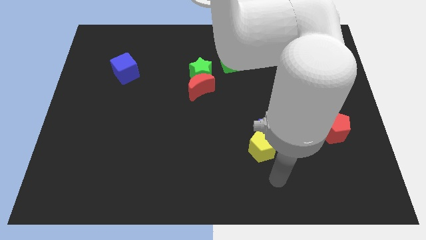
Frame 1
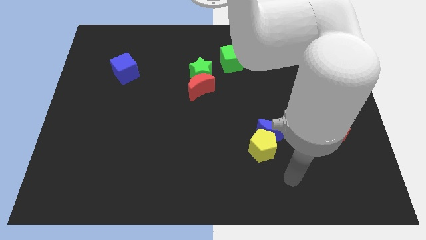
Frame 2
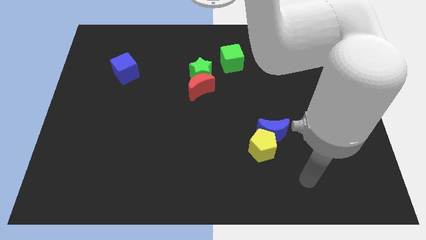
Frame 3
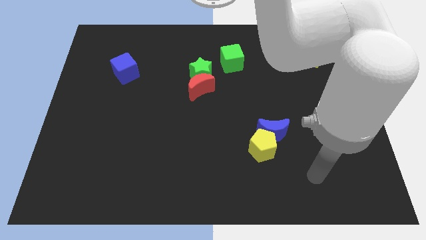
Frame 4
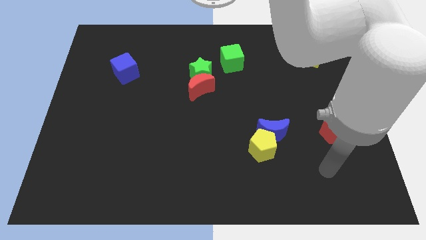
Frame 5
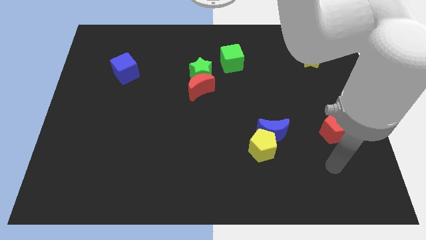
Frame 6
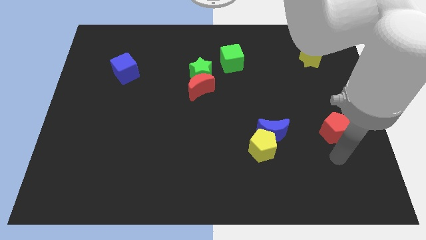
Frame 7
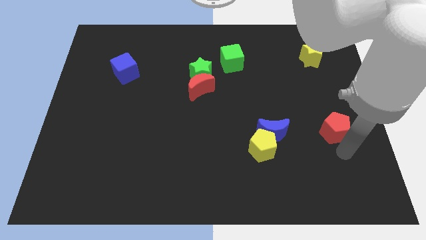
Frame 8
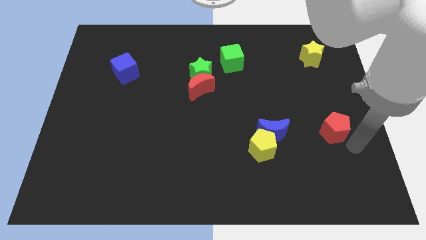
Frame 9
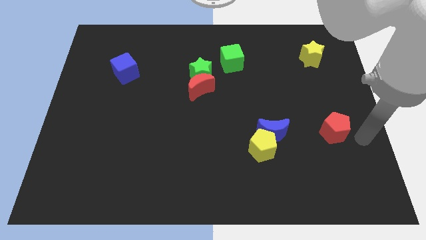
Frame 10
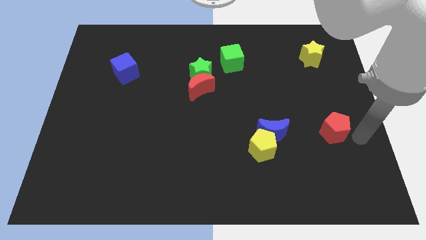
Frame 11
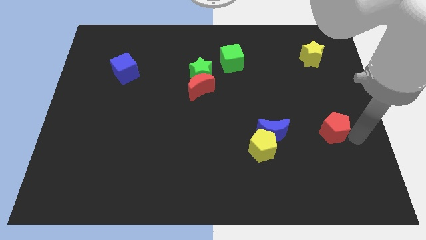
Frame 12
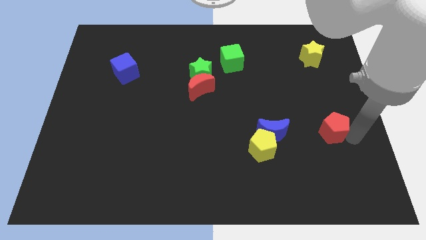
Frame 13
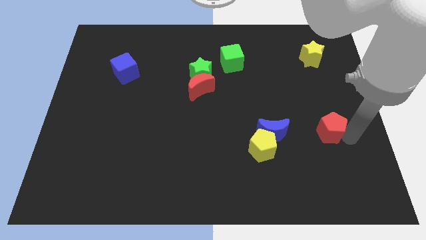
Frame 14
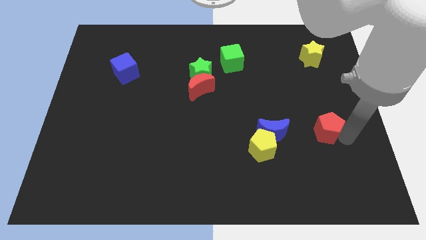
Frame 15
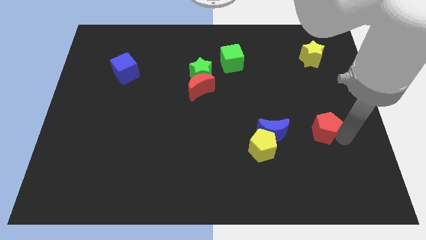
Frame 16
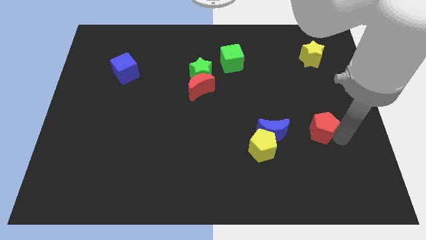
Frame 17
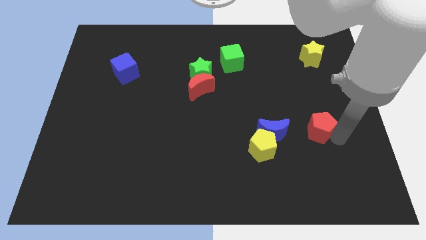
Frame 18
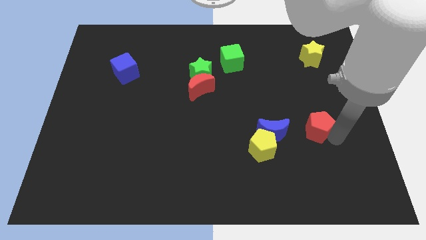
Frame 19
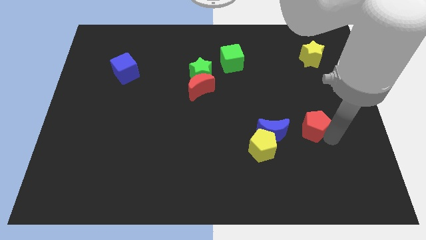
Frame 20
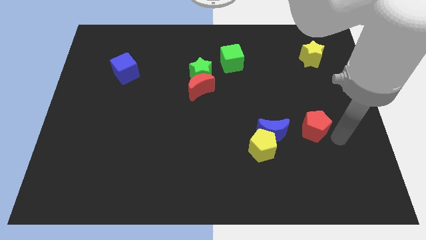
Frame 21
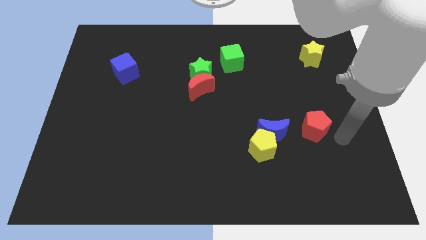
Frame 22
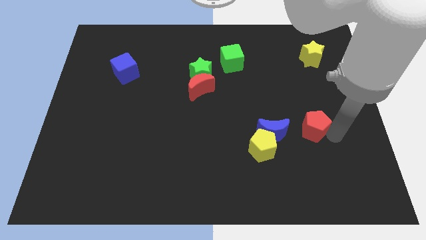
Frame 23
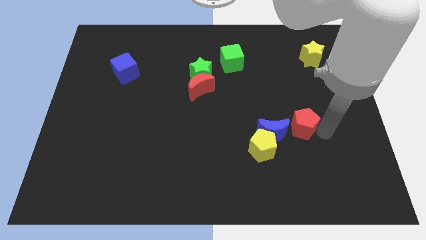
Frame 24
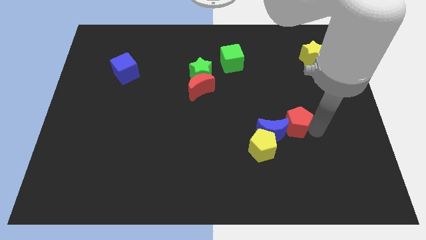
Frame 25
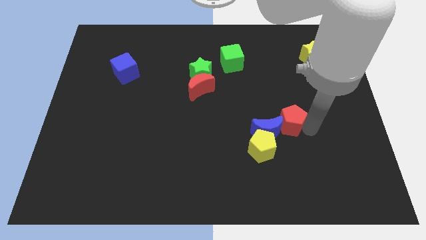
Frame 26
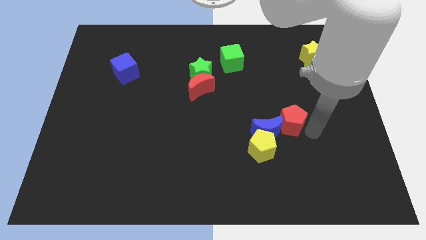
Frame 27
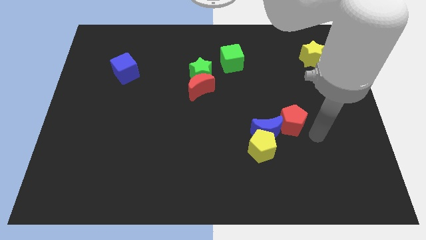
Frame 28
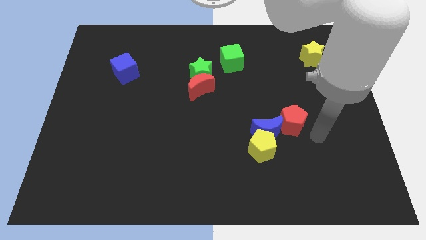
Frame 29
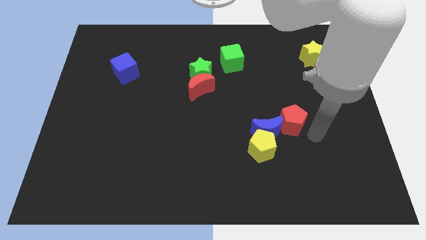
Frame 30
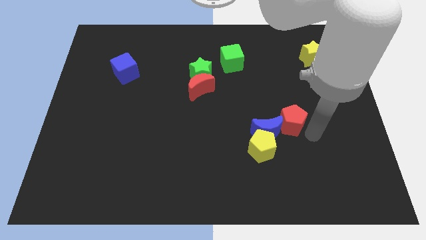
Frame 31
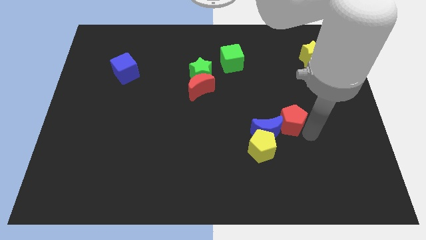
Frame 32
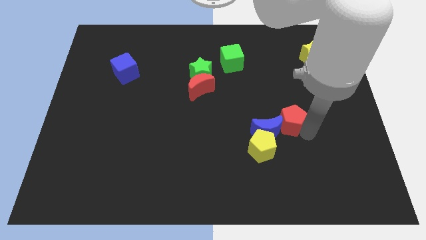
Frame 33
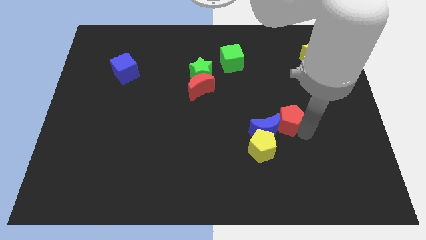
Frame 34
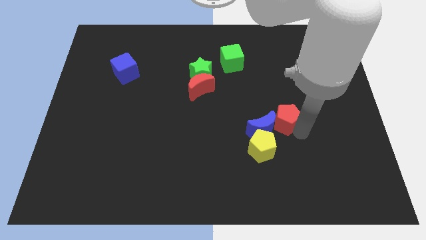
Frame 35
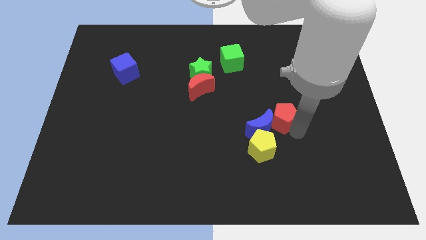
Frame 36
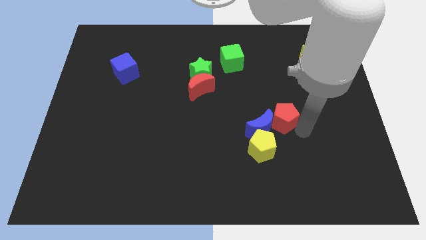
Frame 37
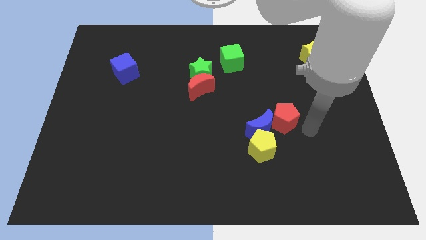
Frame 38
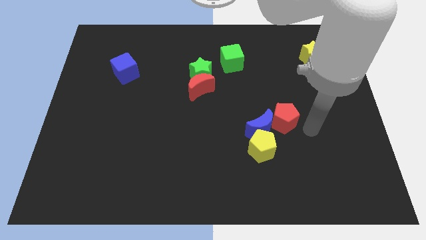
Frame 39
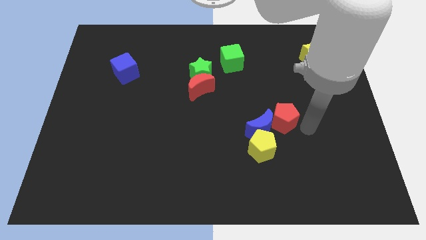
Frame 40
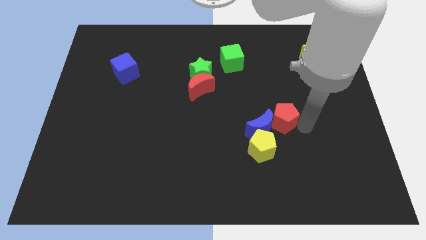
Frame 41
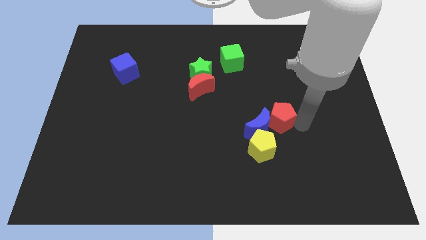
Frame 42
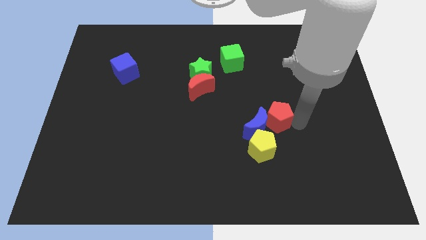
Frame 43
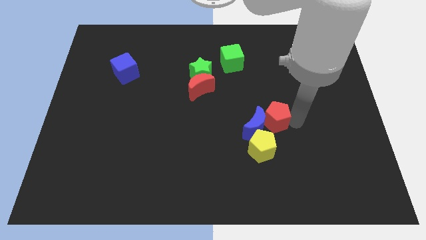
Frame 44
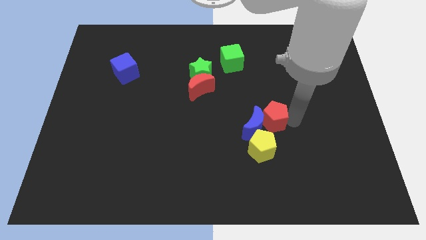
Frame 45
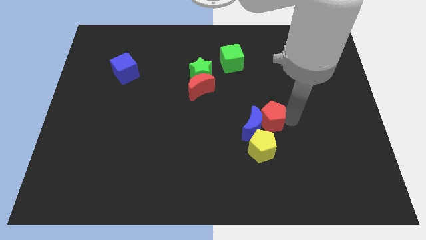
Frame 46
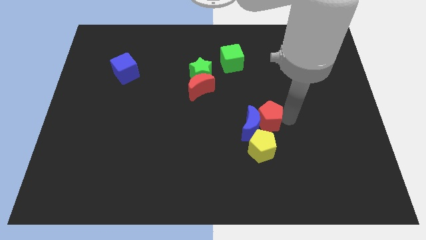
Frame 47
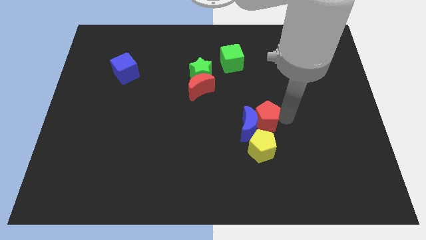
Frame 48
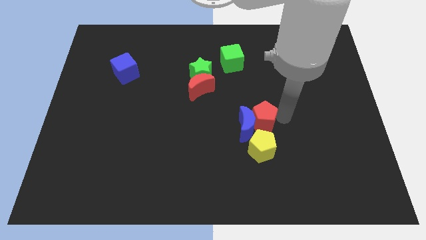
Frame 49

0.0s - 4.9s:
push the red pentagon to the middle of the board

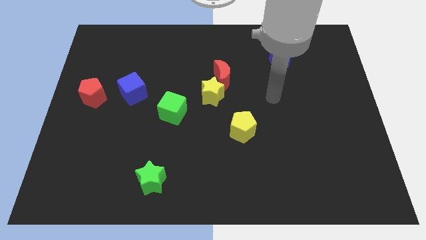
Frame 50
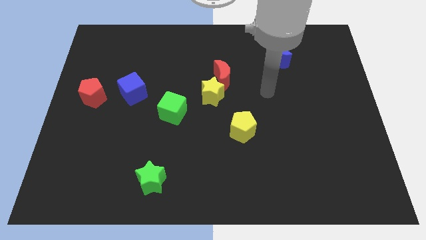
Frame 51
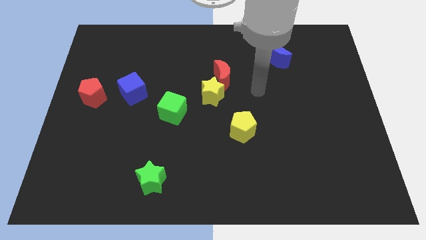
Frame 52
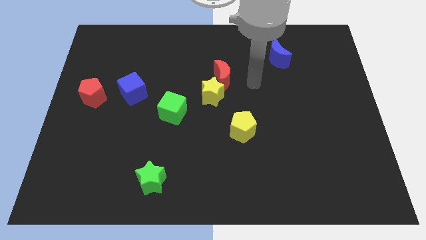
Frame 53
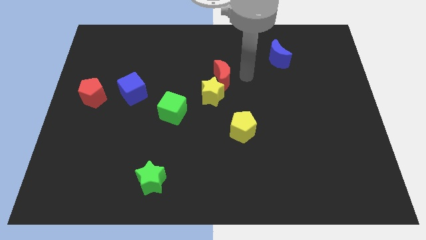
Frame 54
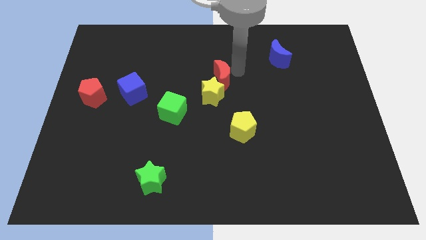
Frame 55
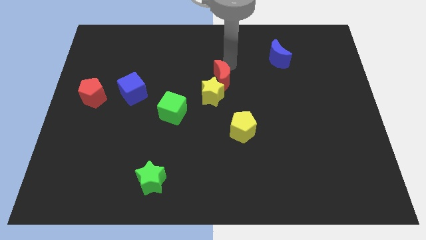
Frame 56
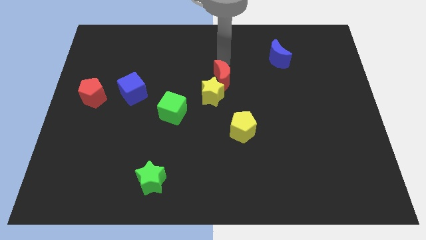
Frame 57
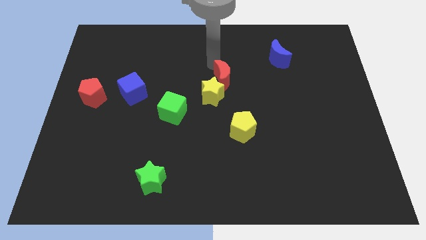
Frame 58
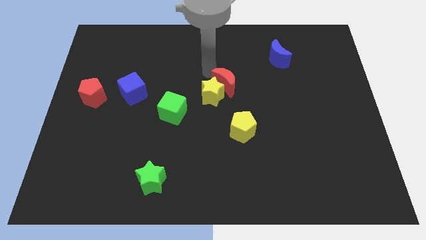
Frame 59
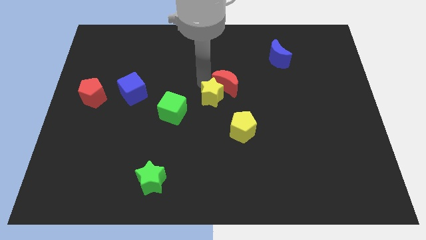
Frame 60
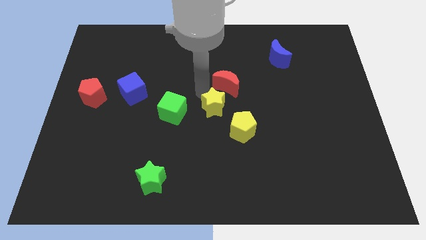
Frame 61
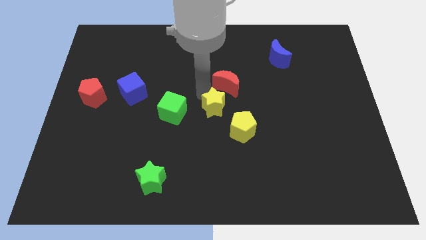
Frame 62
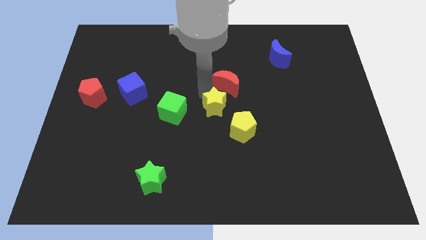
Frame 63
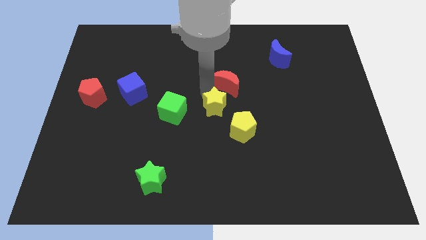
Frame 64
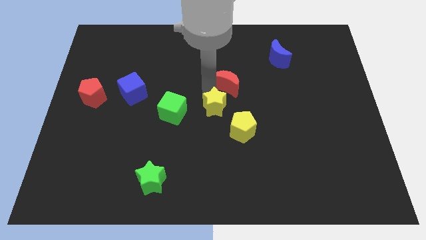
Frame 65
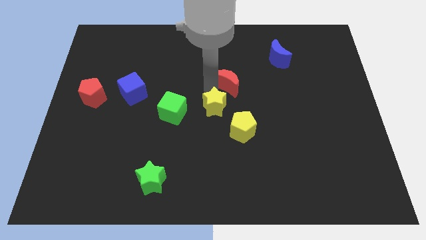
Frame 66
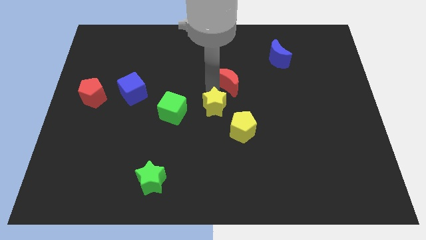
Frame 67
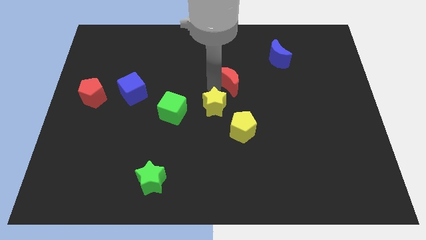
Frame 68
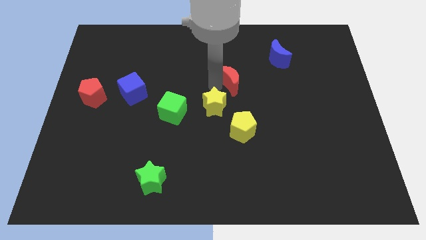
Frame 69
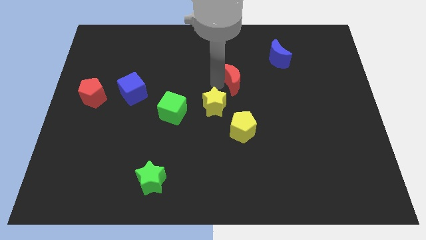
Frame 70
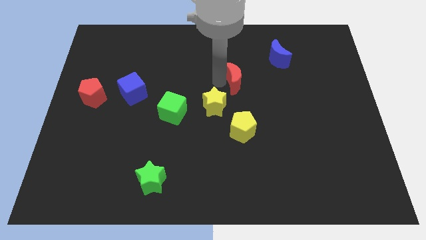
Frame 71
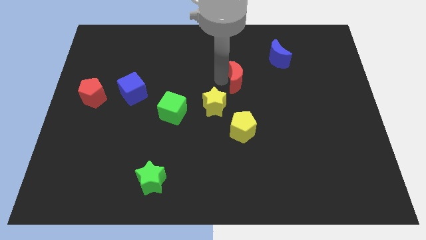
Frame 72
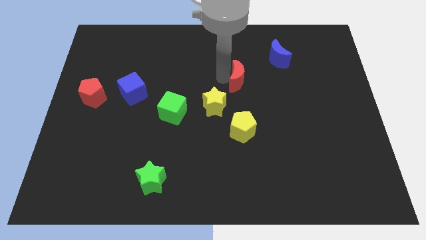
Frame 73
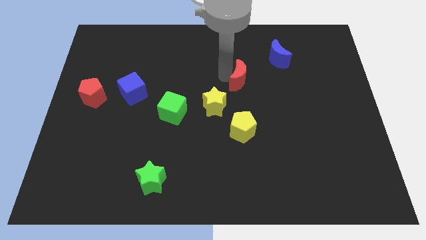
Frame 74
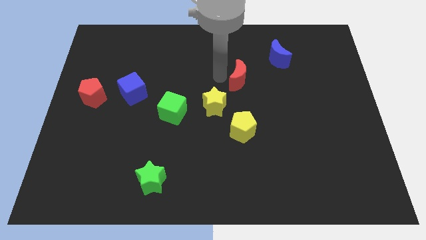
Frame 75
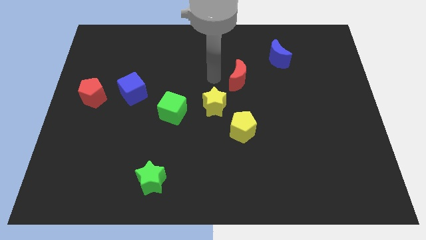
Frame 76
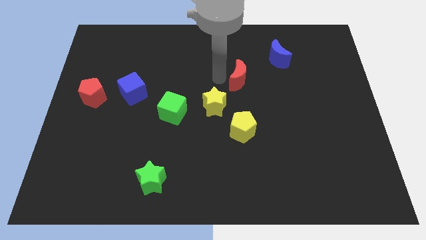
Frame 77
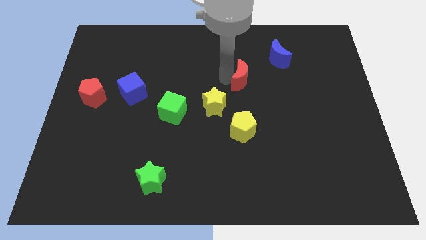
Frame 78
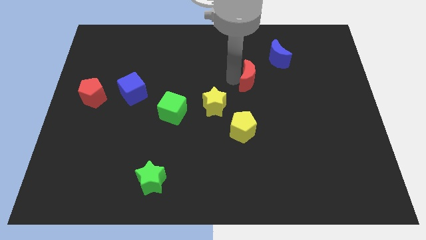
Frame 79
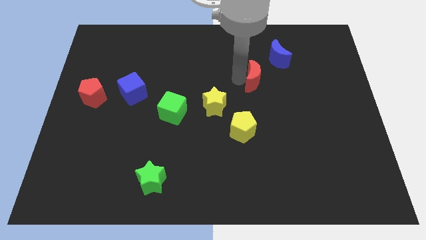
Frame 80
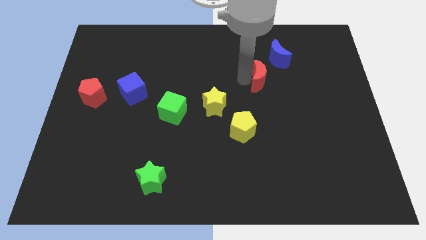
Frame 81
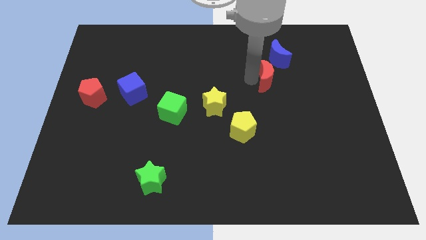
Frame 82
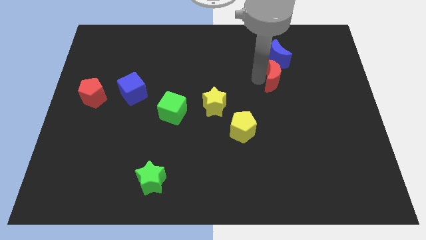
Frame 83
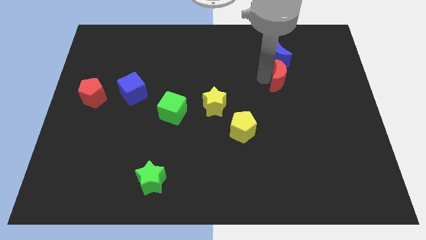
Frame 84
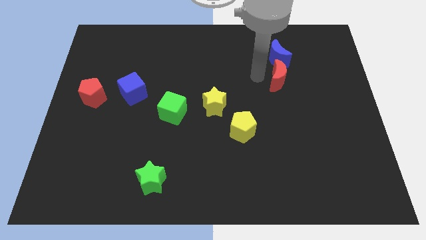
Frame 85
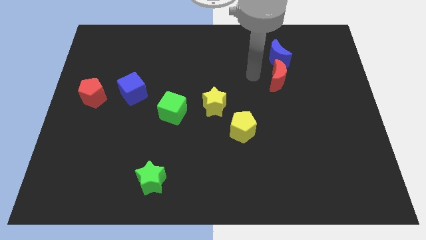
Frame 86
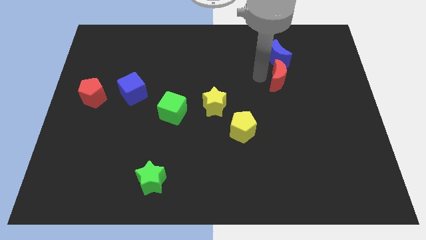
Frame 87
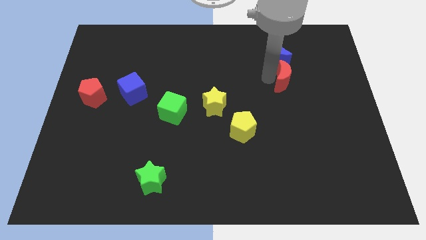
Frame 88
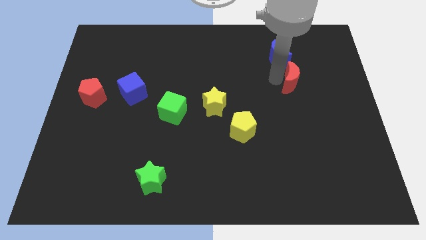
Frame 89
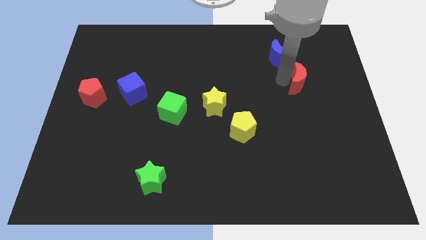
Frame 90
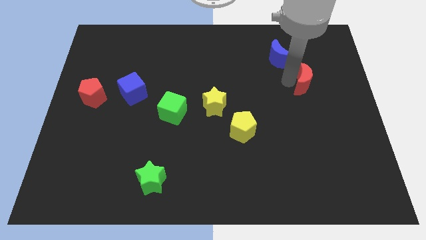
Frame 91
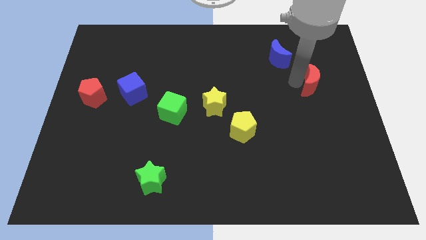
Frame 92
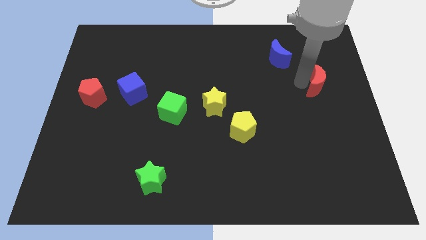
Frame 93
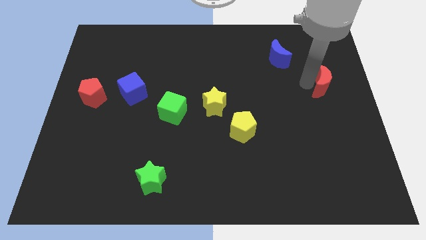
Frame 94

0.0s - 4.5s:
slide the red moon to the right side
